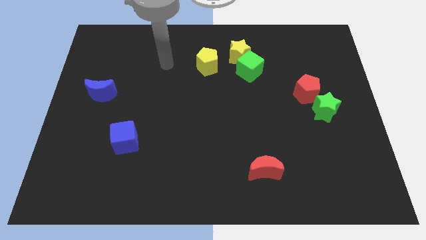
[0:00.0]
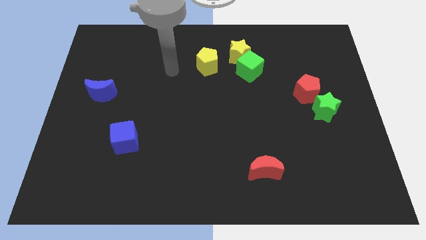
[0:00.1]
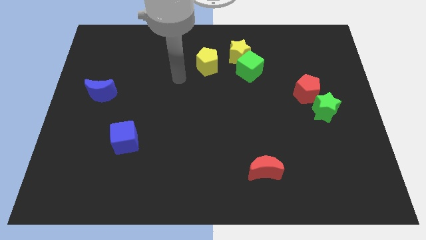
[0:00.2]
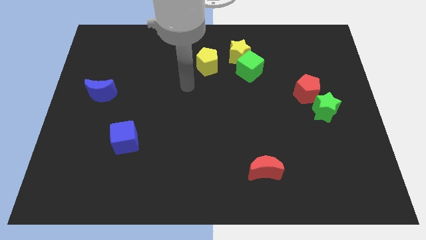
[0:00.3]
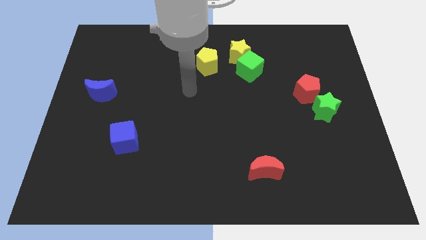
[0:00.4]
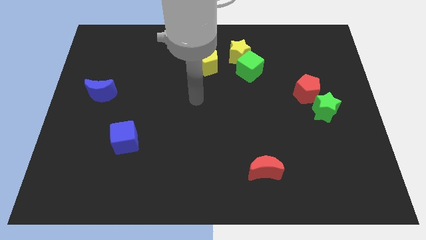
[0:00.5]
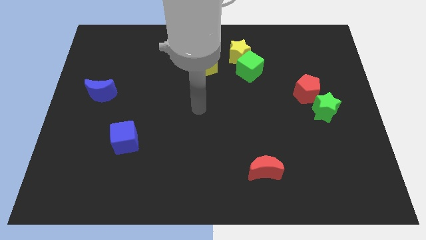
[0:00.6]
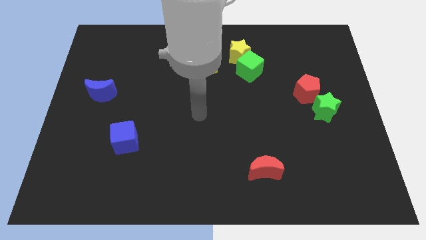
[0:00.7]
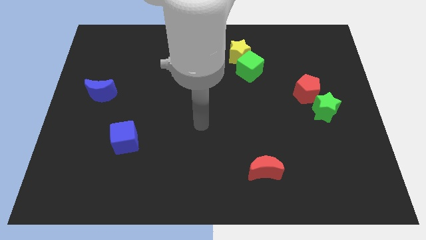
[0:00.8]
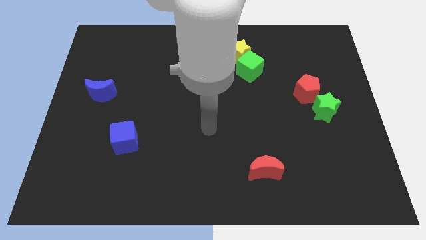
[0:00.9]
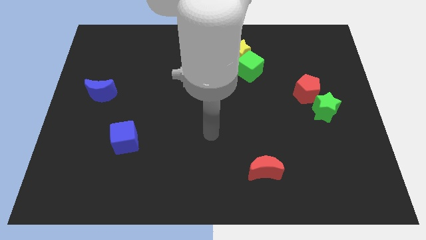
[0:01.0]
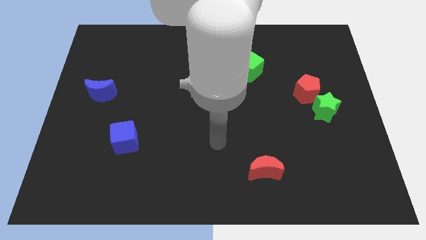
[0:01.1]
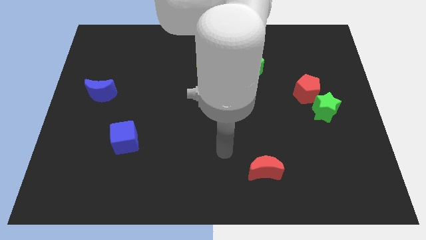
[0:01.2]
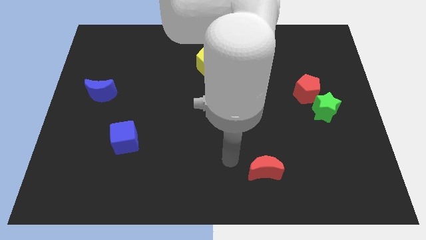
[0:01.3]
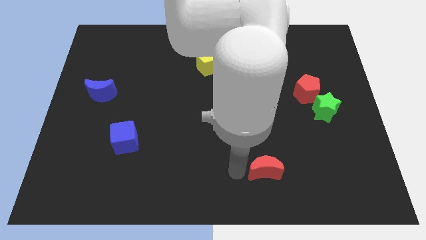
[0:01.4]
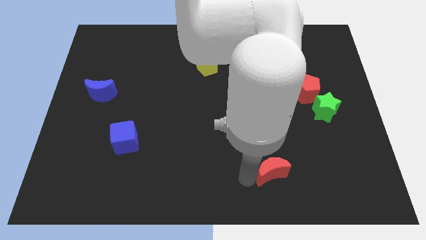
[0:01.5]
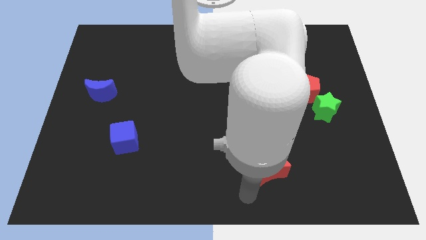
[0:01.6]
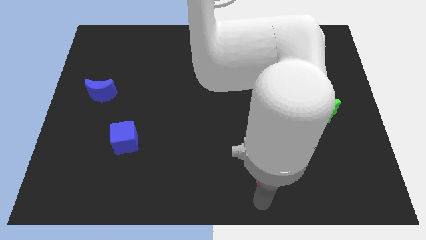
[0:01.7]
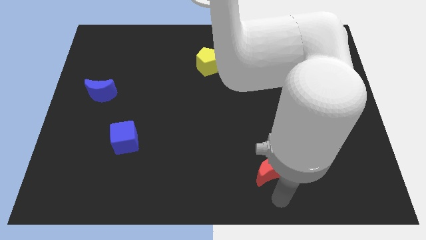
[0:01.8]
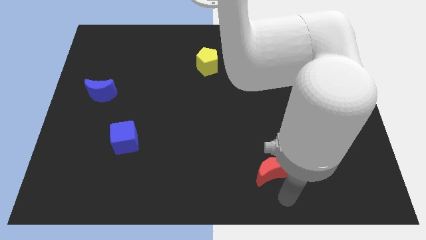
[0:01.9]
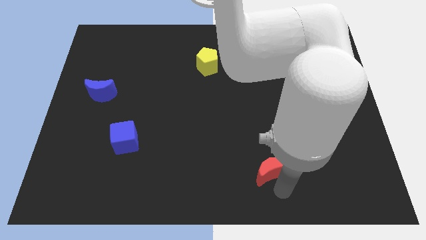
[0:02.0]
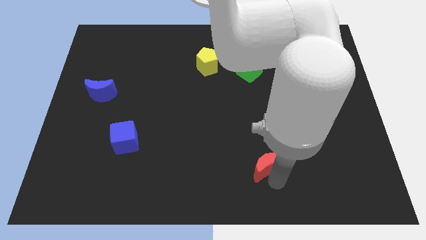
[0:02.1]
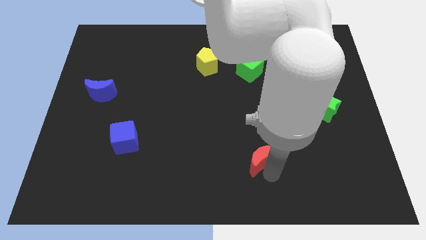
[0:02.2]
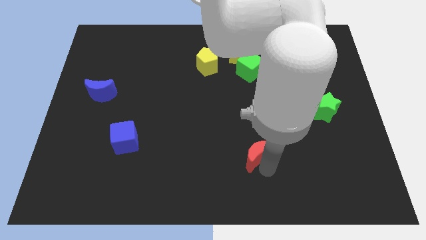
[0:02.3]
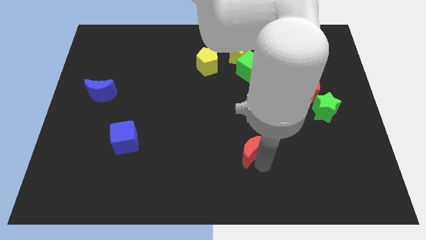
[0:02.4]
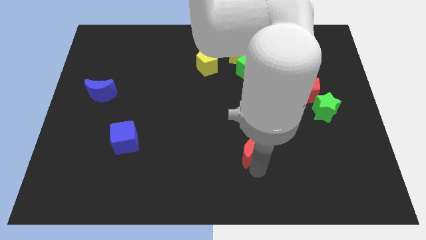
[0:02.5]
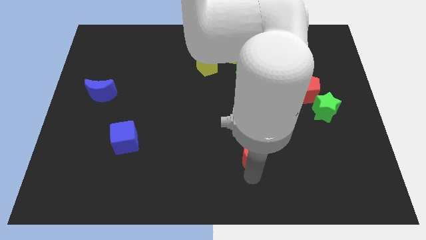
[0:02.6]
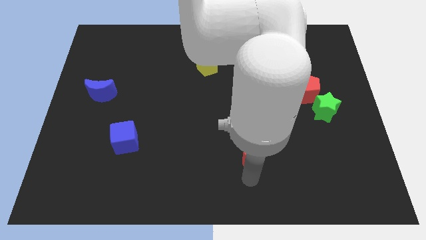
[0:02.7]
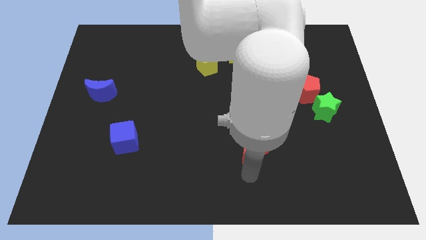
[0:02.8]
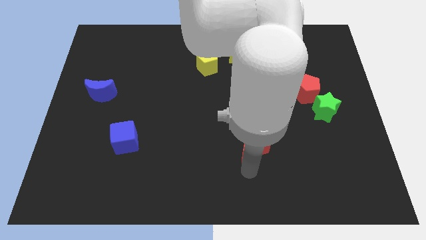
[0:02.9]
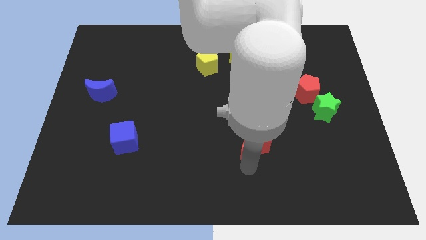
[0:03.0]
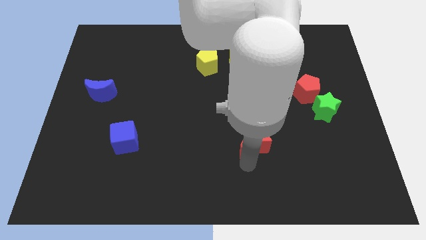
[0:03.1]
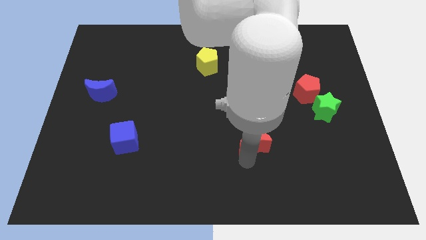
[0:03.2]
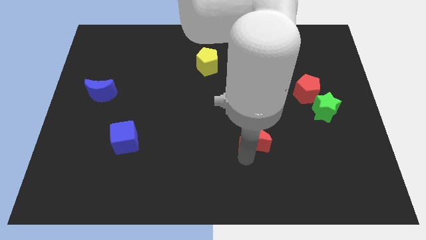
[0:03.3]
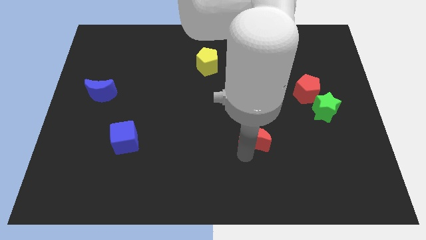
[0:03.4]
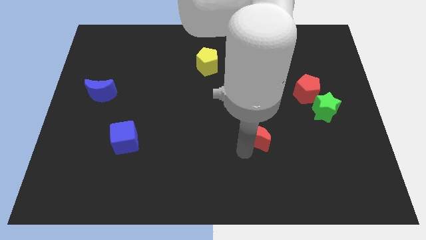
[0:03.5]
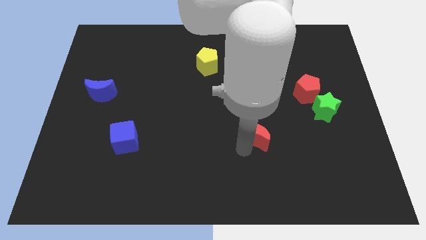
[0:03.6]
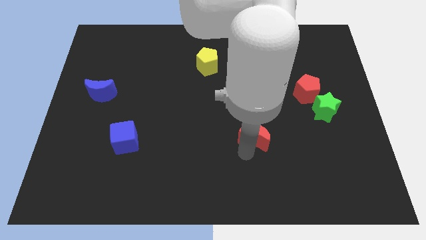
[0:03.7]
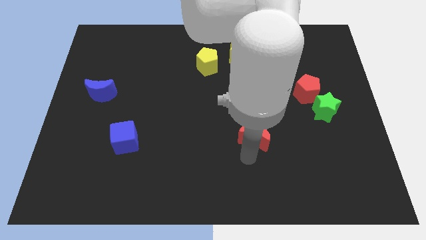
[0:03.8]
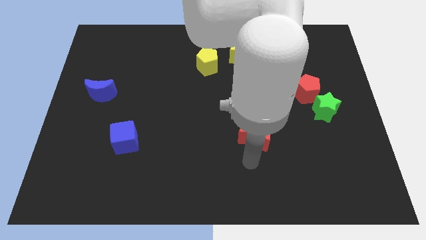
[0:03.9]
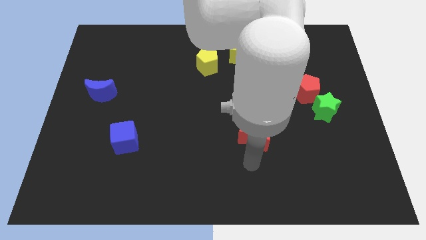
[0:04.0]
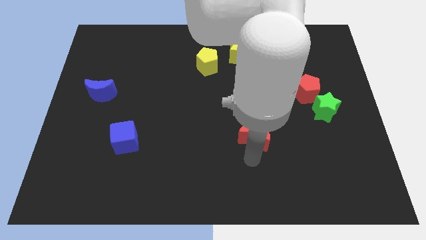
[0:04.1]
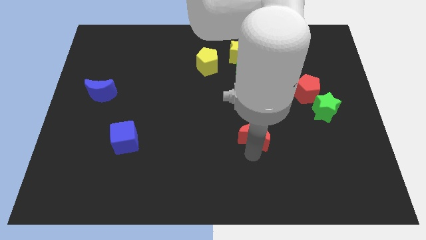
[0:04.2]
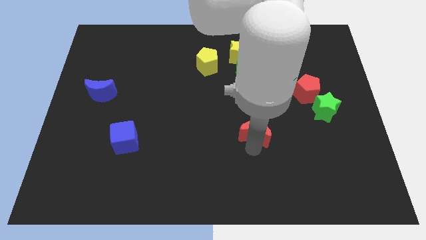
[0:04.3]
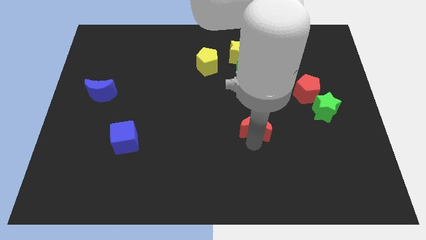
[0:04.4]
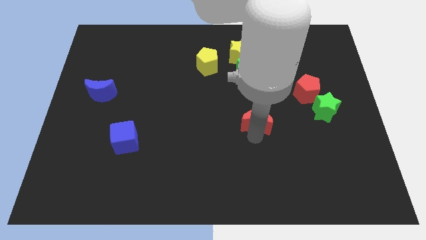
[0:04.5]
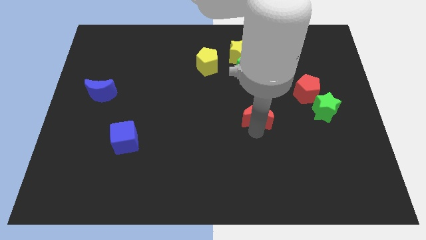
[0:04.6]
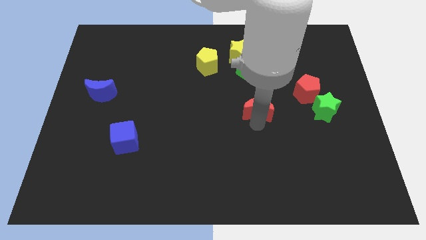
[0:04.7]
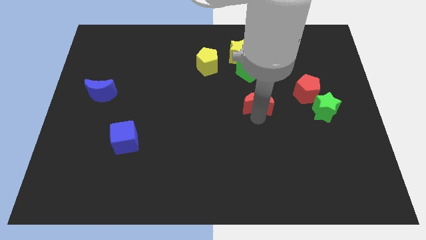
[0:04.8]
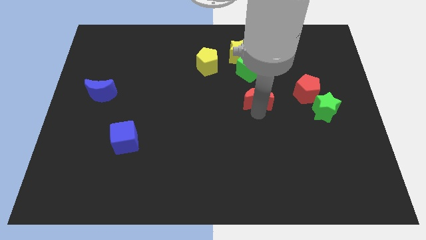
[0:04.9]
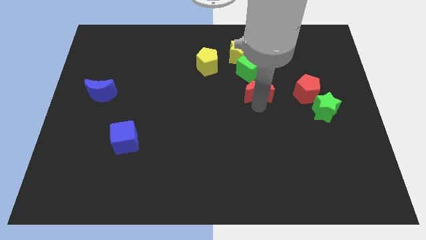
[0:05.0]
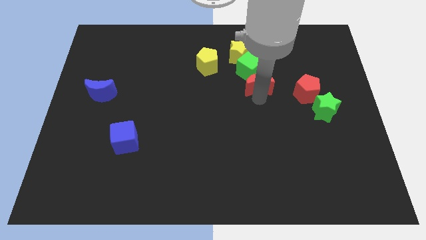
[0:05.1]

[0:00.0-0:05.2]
move the red moon to the green cube

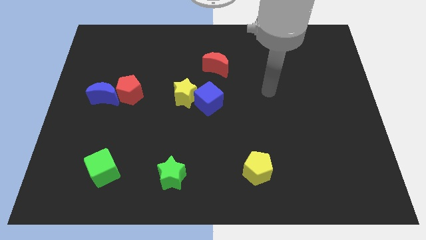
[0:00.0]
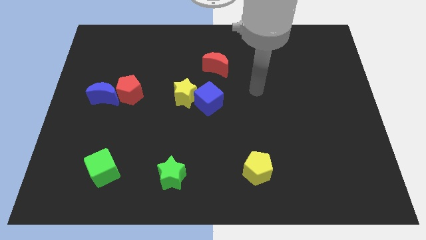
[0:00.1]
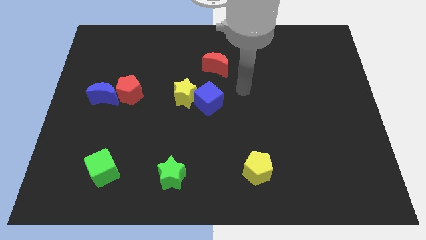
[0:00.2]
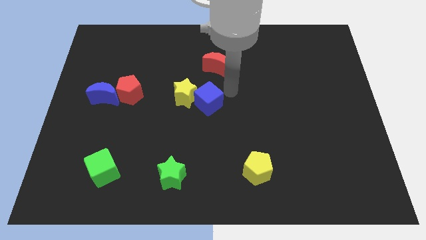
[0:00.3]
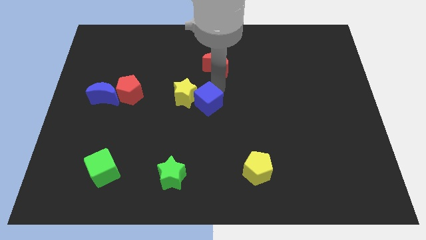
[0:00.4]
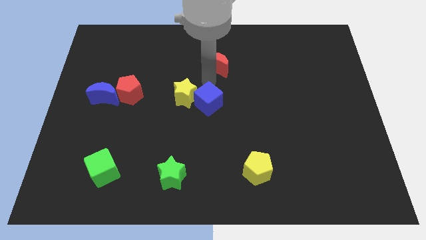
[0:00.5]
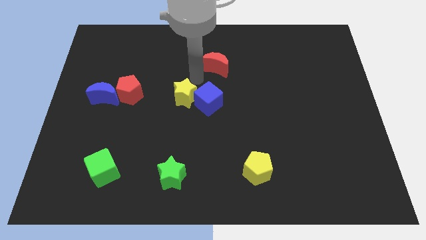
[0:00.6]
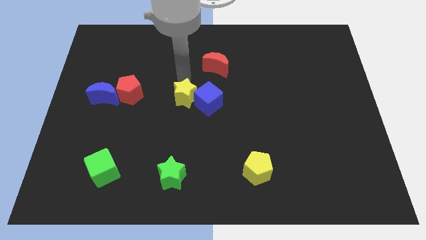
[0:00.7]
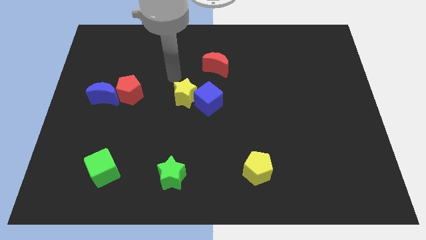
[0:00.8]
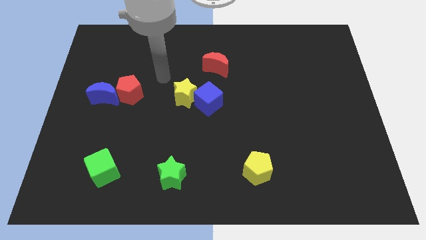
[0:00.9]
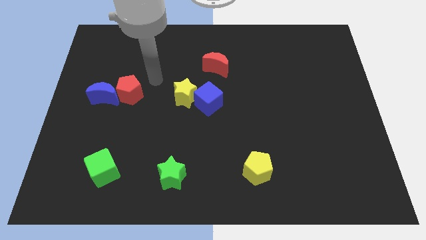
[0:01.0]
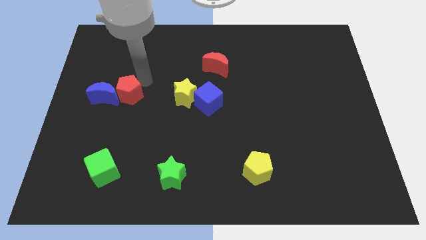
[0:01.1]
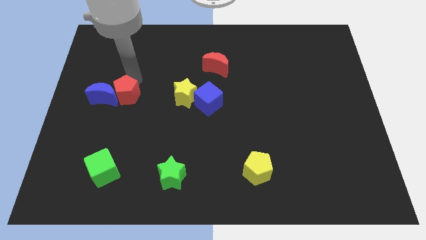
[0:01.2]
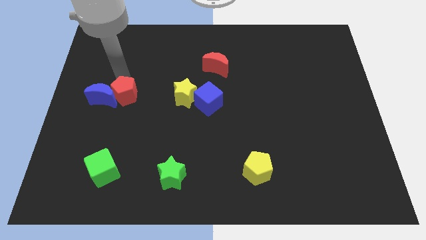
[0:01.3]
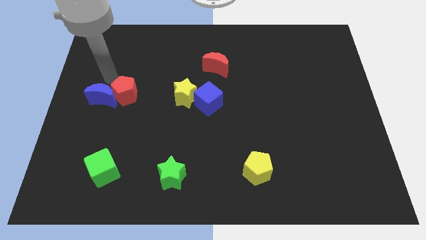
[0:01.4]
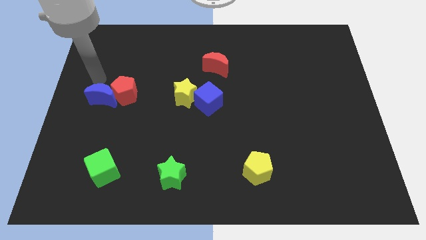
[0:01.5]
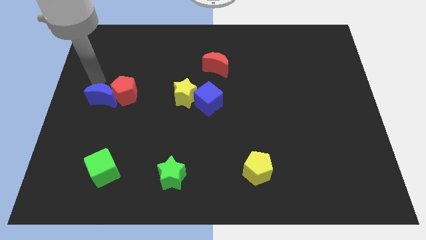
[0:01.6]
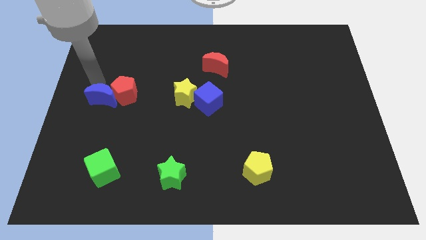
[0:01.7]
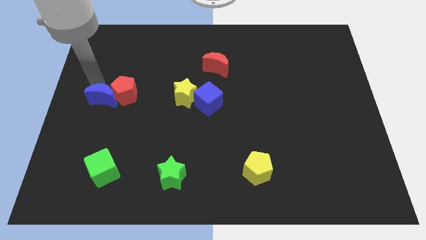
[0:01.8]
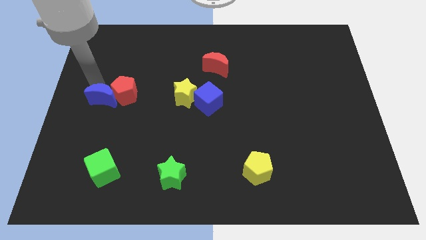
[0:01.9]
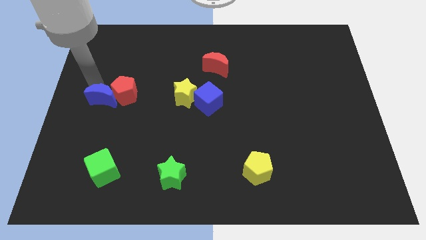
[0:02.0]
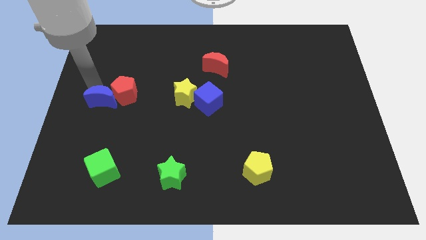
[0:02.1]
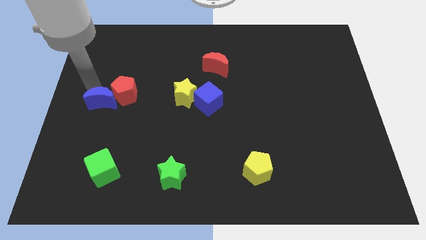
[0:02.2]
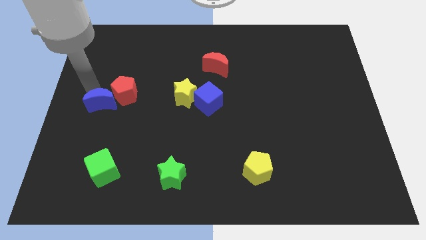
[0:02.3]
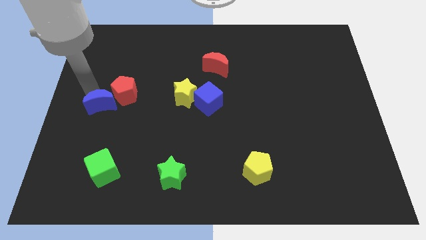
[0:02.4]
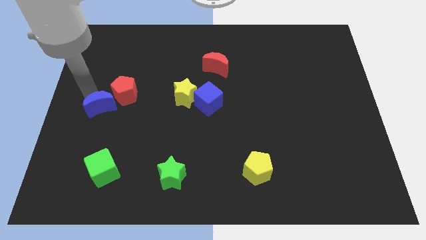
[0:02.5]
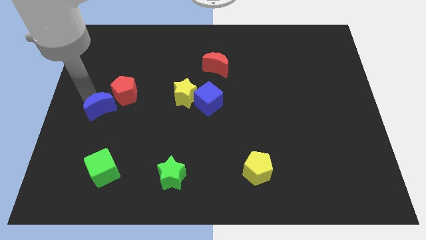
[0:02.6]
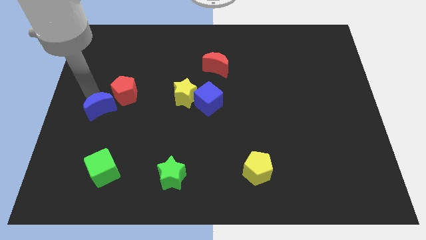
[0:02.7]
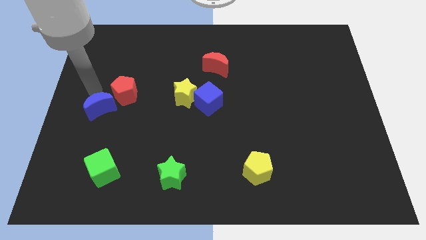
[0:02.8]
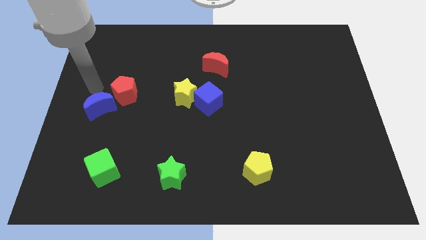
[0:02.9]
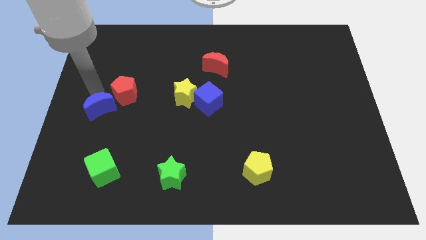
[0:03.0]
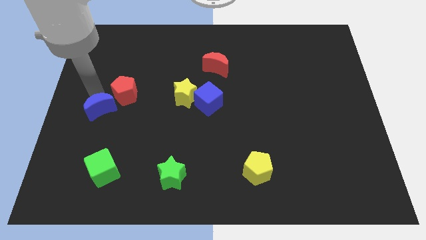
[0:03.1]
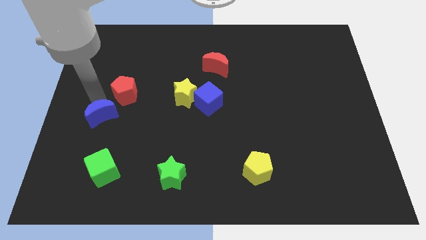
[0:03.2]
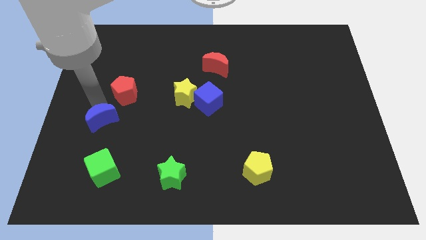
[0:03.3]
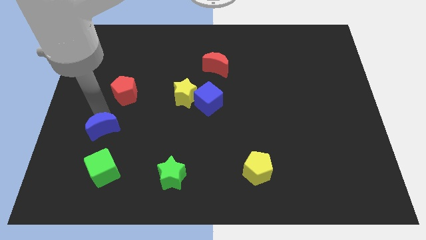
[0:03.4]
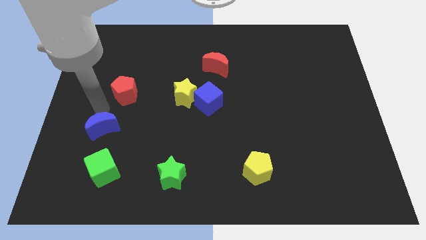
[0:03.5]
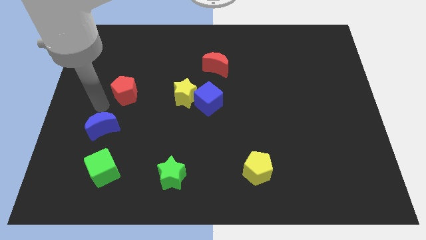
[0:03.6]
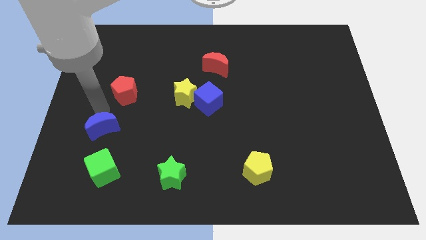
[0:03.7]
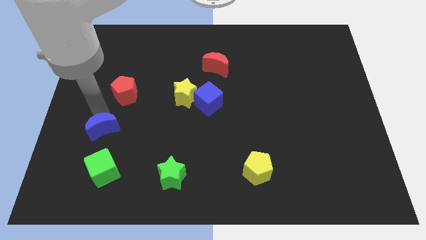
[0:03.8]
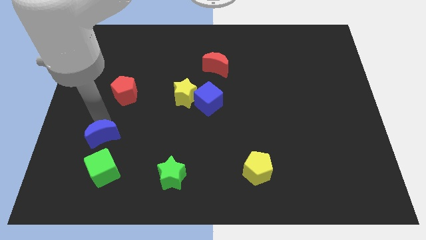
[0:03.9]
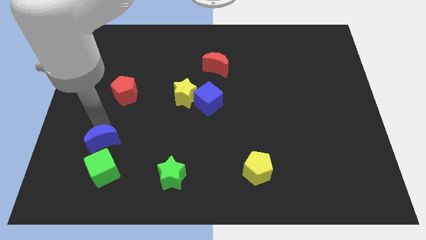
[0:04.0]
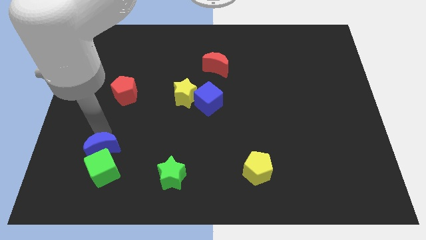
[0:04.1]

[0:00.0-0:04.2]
put the blue moon towards the green cube
